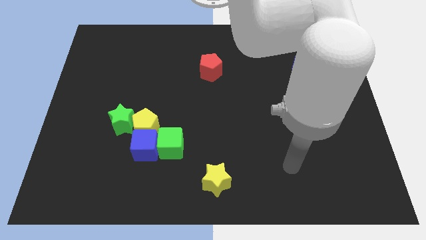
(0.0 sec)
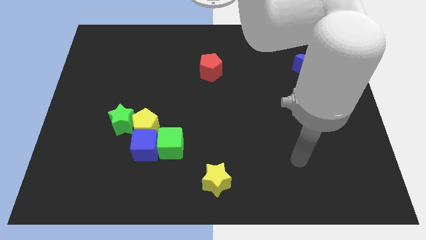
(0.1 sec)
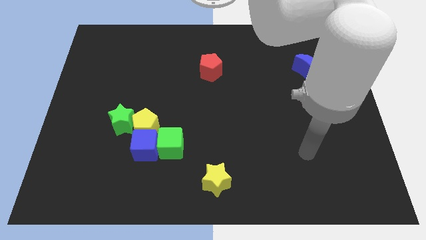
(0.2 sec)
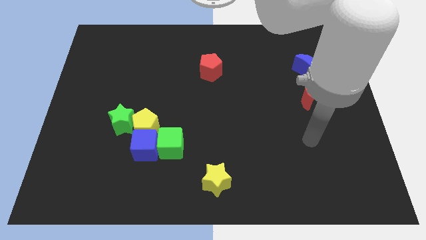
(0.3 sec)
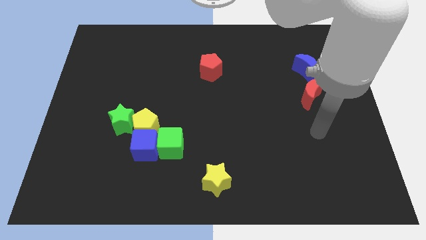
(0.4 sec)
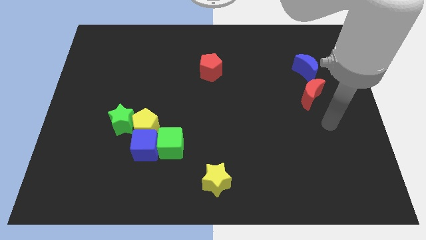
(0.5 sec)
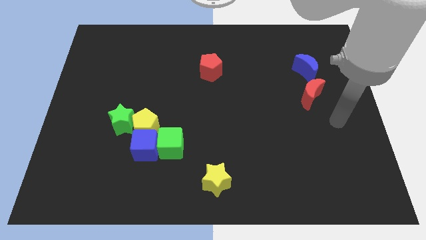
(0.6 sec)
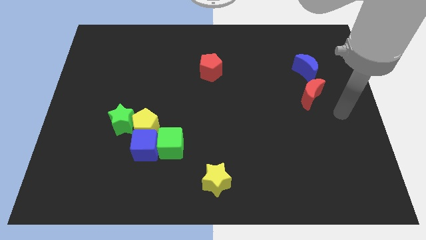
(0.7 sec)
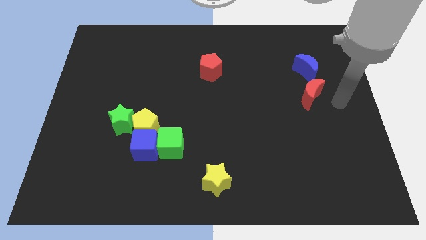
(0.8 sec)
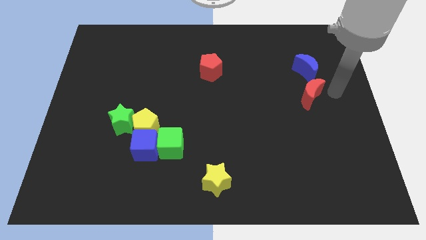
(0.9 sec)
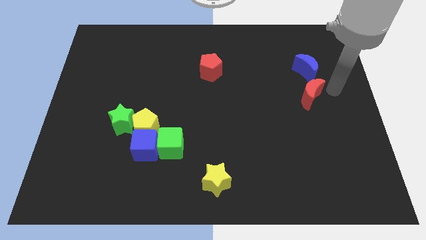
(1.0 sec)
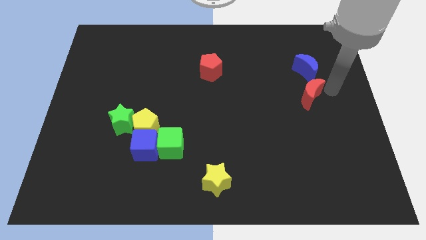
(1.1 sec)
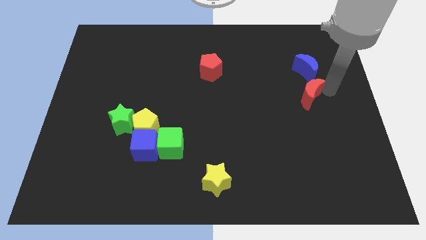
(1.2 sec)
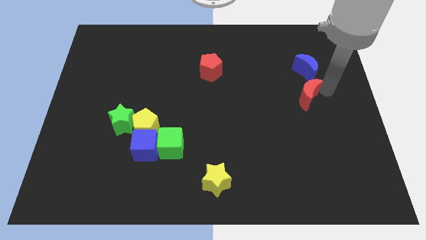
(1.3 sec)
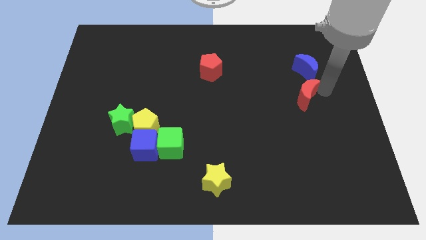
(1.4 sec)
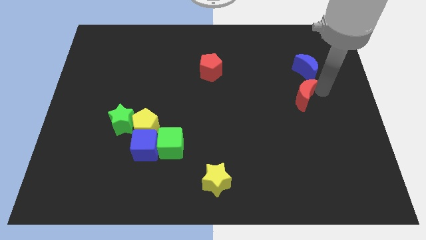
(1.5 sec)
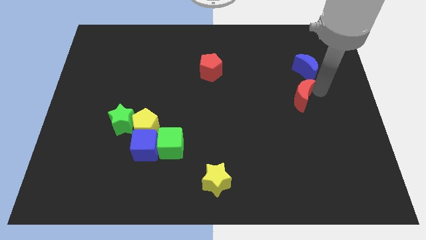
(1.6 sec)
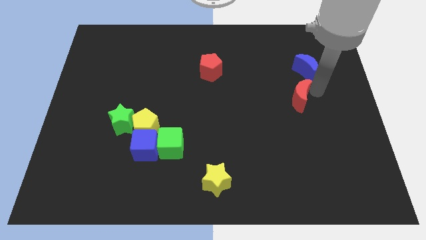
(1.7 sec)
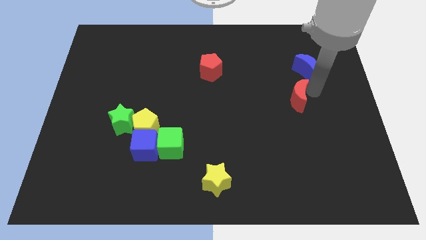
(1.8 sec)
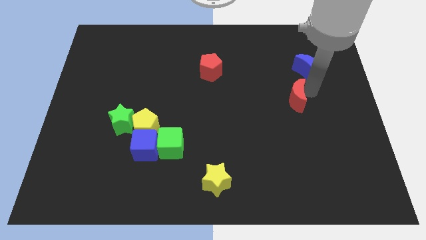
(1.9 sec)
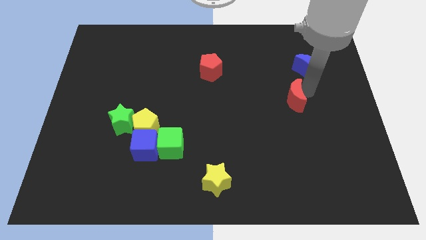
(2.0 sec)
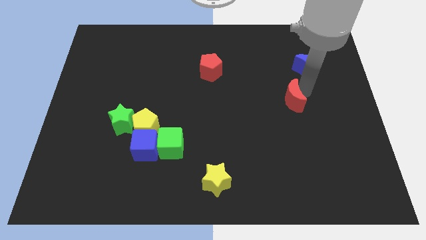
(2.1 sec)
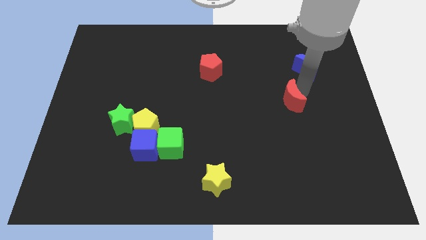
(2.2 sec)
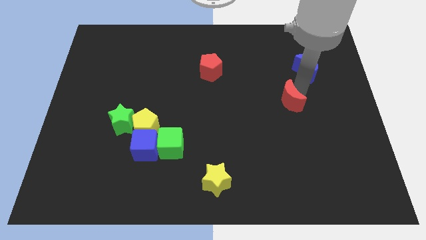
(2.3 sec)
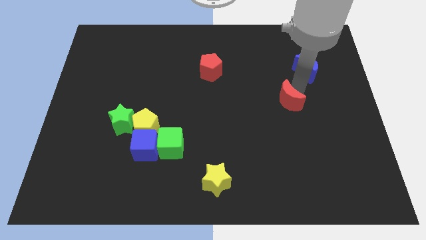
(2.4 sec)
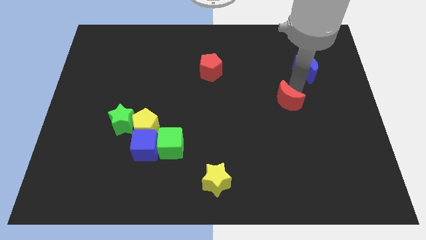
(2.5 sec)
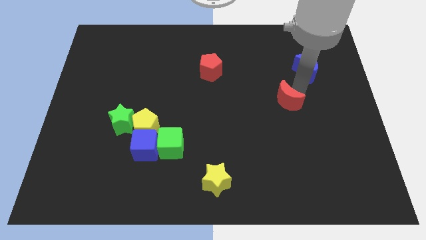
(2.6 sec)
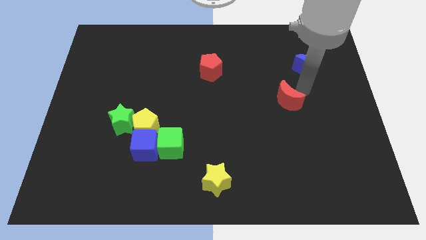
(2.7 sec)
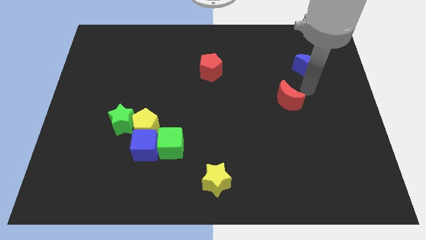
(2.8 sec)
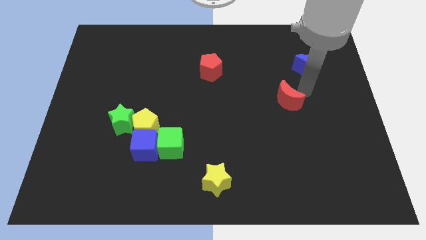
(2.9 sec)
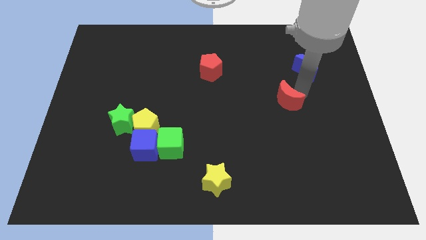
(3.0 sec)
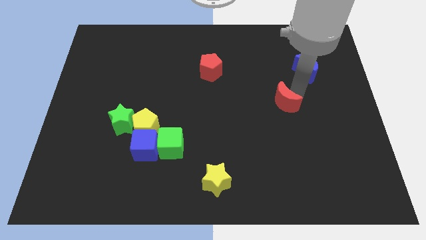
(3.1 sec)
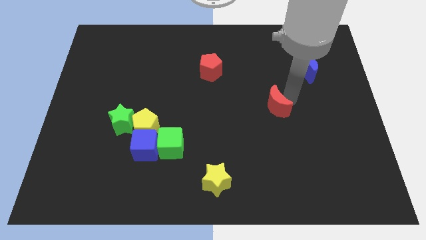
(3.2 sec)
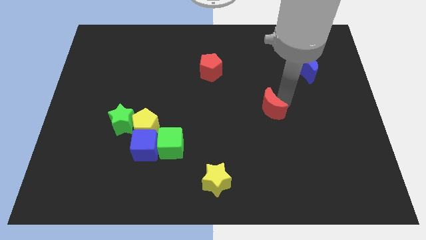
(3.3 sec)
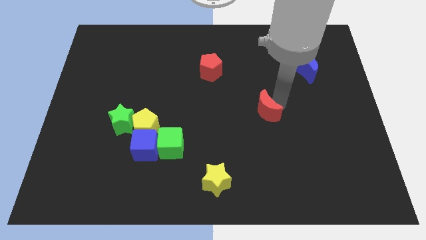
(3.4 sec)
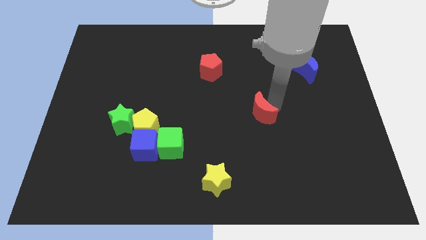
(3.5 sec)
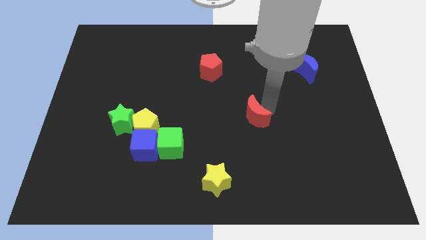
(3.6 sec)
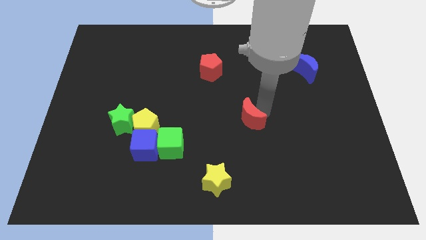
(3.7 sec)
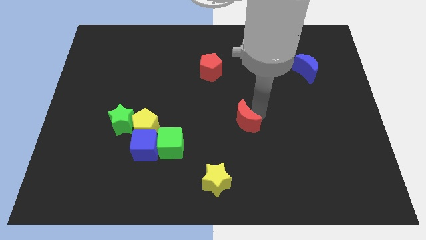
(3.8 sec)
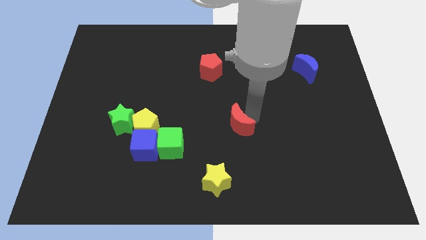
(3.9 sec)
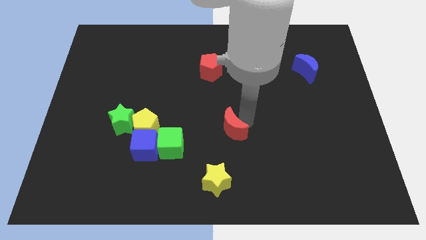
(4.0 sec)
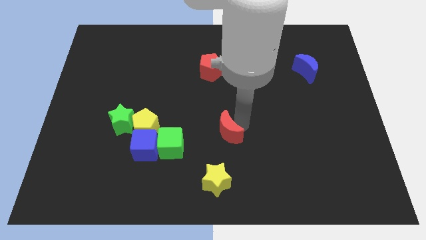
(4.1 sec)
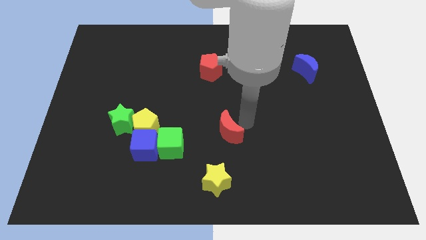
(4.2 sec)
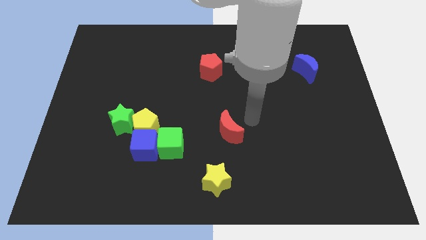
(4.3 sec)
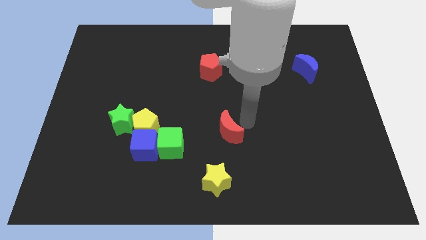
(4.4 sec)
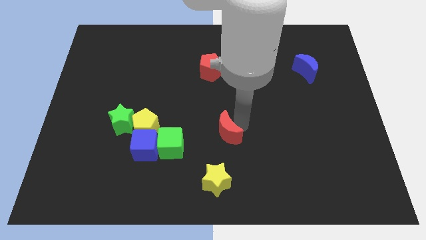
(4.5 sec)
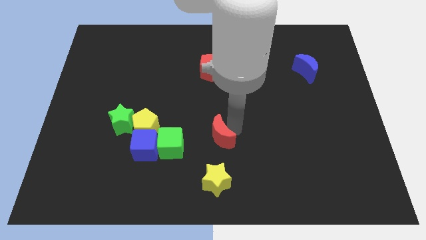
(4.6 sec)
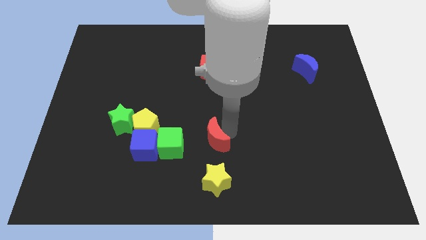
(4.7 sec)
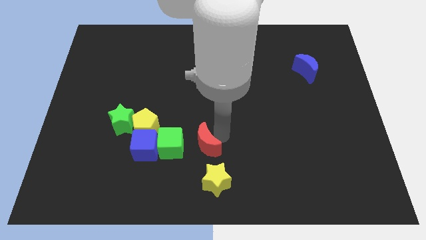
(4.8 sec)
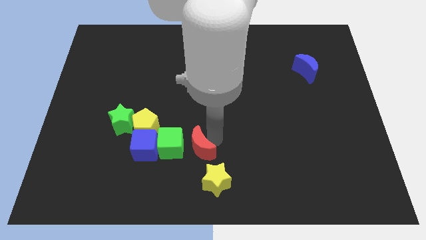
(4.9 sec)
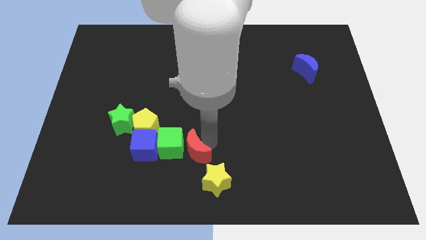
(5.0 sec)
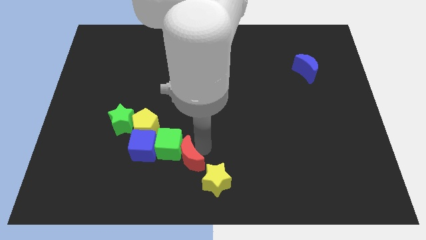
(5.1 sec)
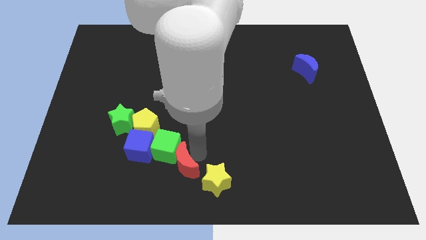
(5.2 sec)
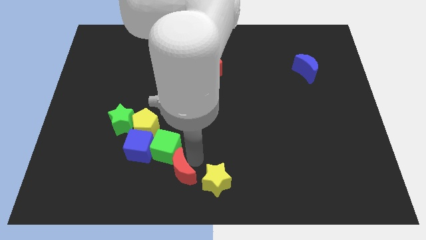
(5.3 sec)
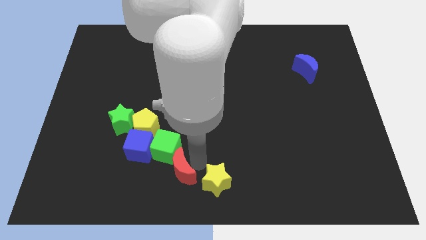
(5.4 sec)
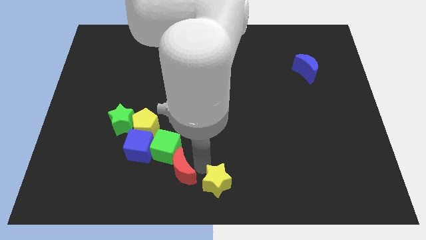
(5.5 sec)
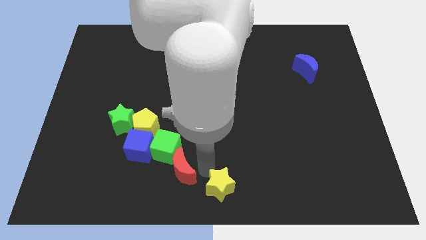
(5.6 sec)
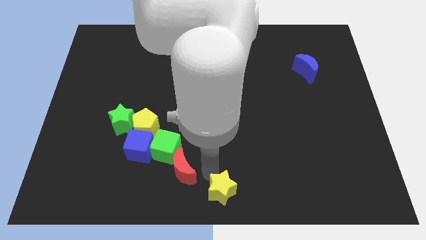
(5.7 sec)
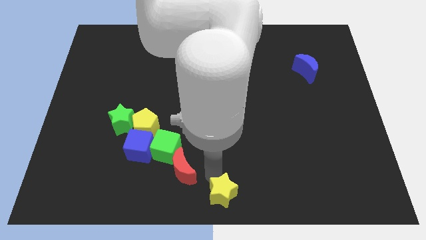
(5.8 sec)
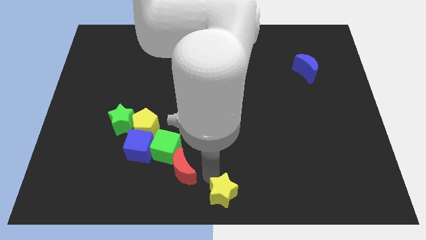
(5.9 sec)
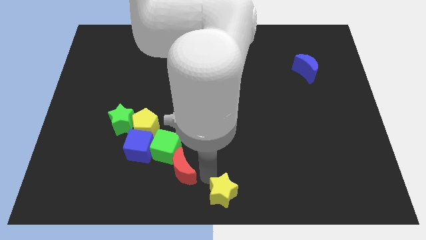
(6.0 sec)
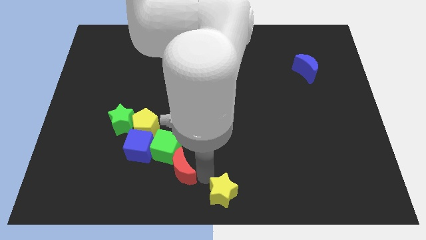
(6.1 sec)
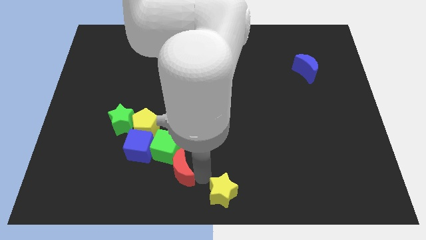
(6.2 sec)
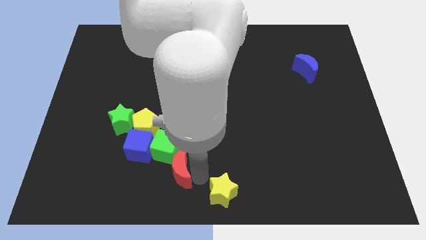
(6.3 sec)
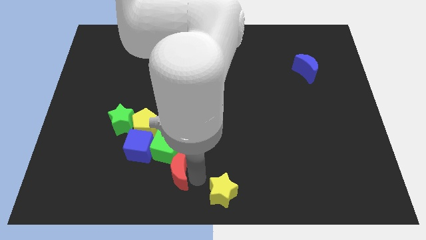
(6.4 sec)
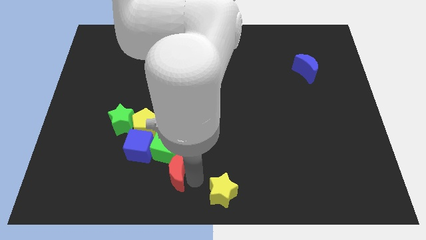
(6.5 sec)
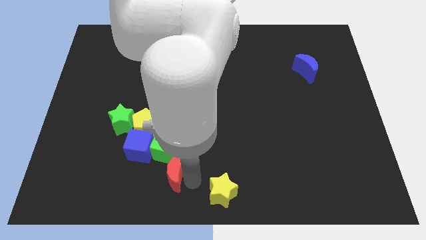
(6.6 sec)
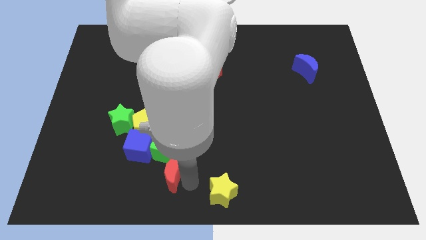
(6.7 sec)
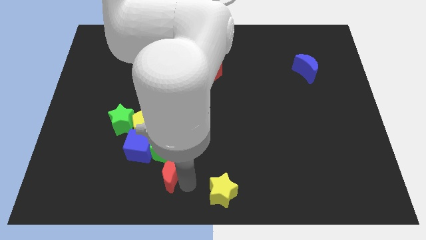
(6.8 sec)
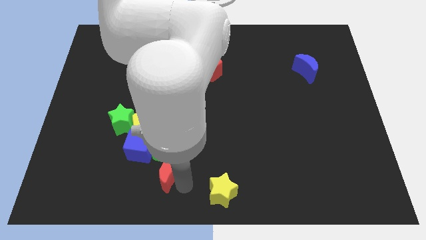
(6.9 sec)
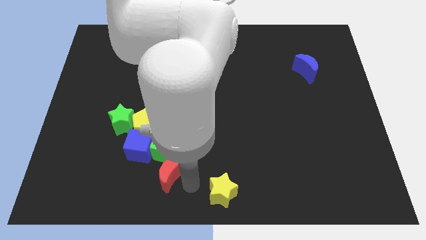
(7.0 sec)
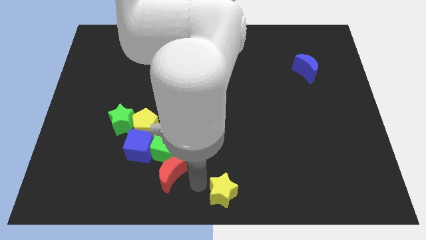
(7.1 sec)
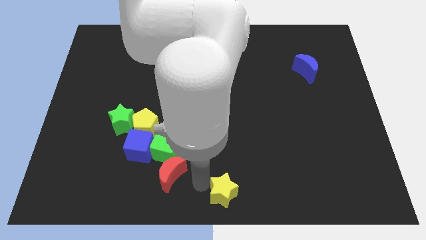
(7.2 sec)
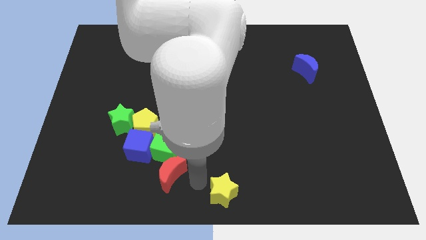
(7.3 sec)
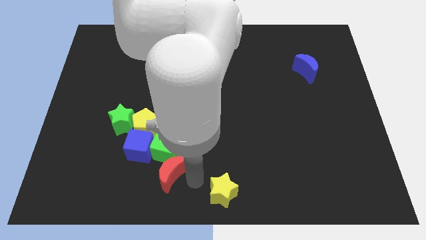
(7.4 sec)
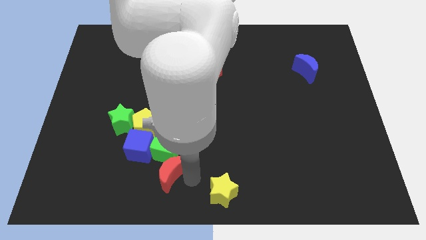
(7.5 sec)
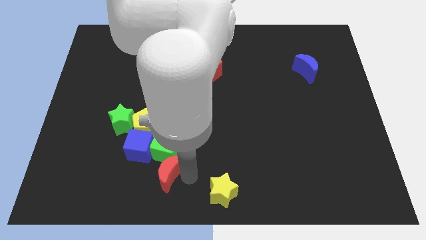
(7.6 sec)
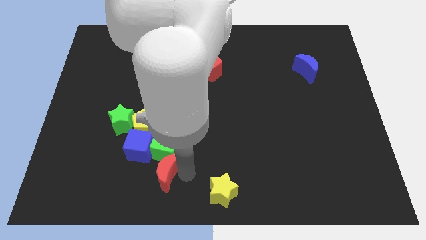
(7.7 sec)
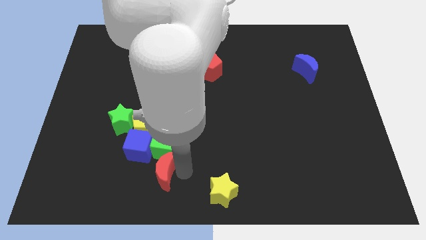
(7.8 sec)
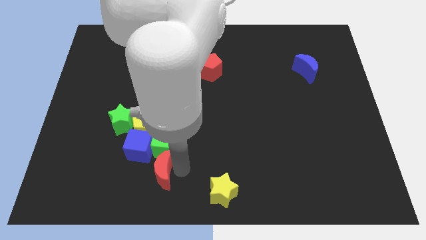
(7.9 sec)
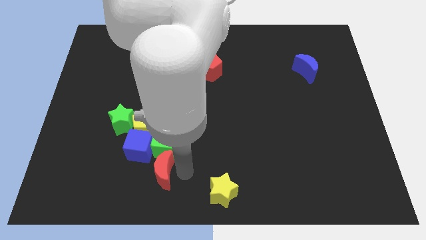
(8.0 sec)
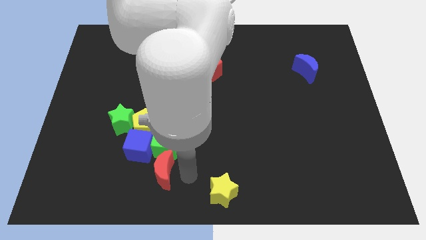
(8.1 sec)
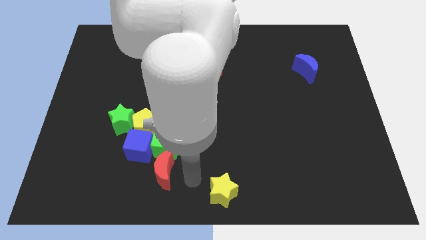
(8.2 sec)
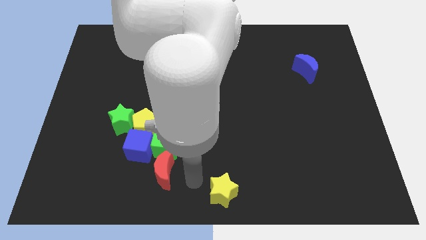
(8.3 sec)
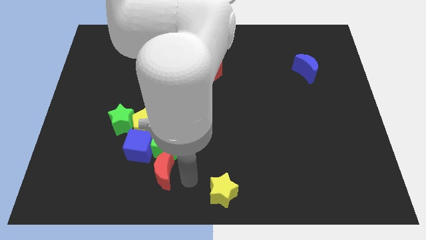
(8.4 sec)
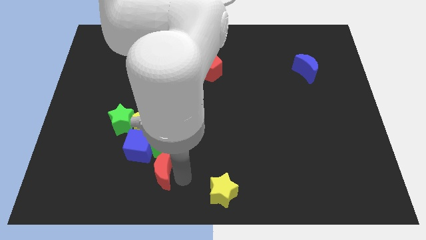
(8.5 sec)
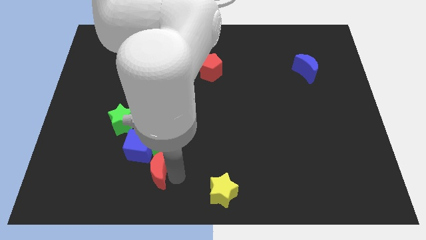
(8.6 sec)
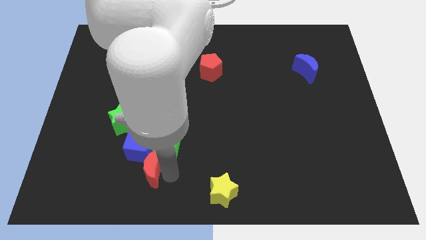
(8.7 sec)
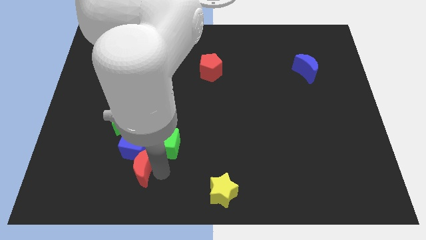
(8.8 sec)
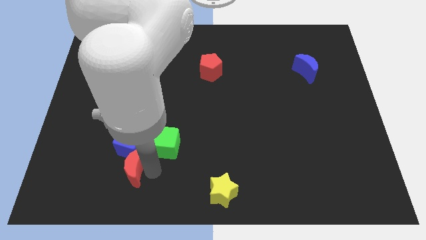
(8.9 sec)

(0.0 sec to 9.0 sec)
put the red moon to the bottom of the green star
